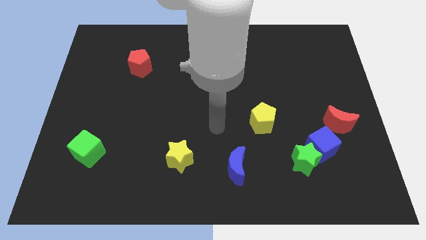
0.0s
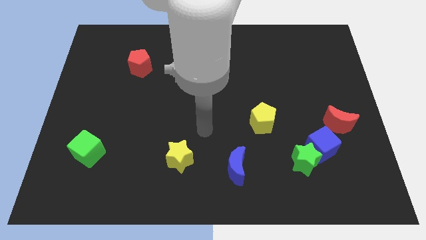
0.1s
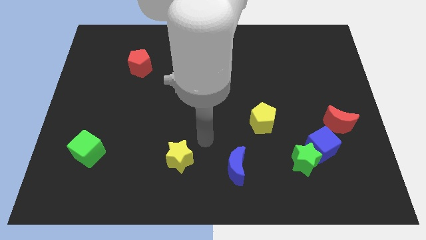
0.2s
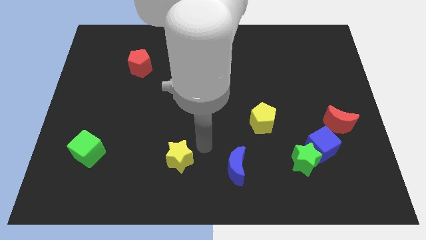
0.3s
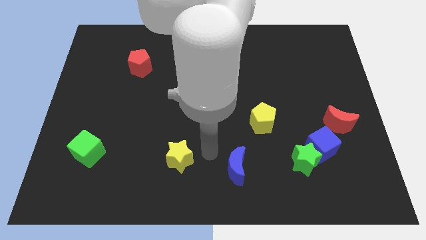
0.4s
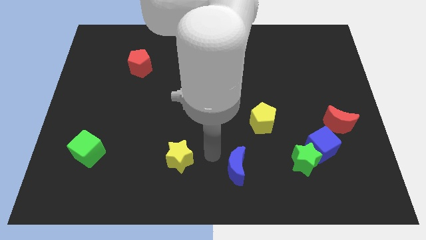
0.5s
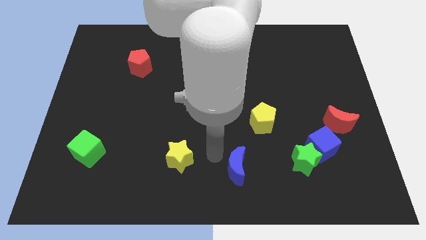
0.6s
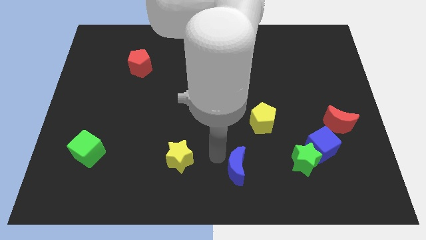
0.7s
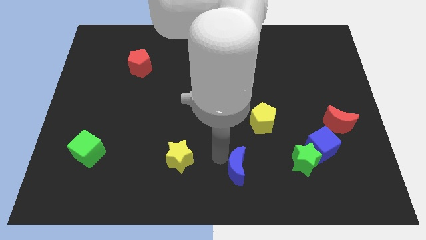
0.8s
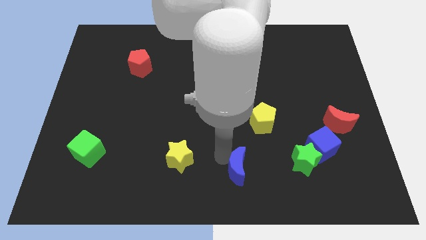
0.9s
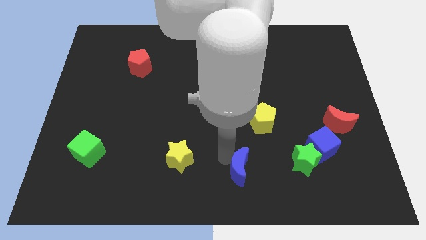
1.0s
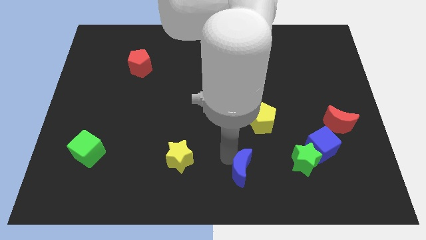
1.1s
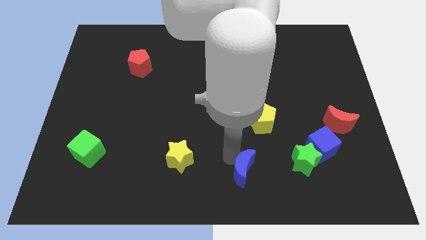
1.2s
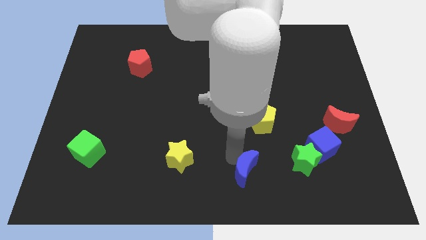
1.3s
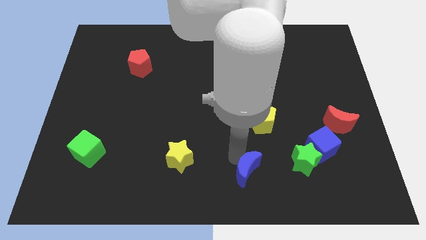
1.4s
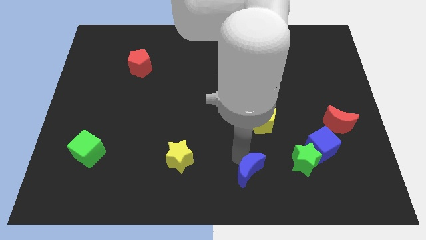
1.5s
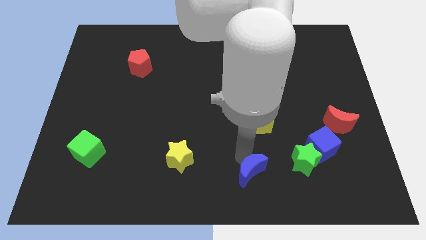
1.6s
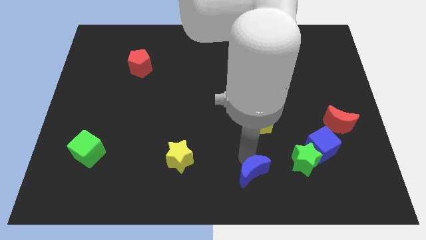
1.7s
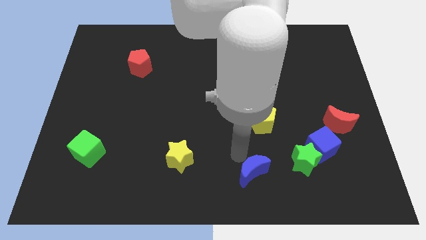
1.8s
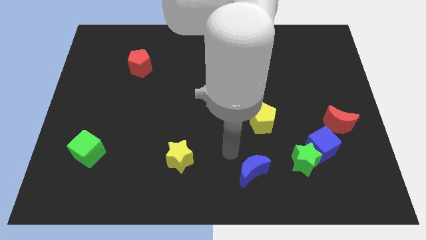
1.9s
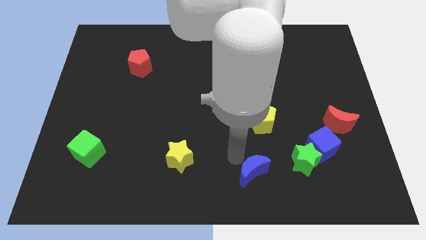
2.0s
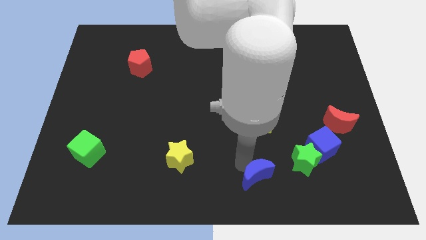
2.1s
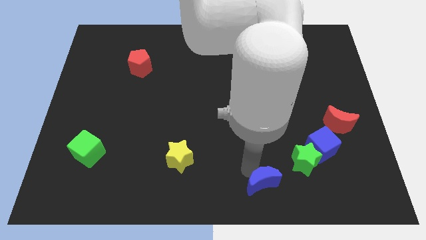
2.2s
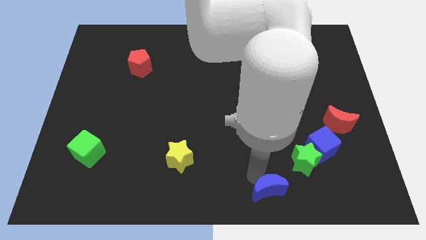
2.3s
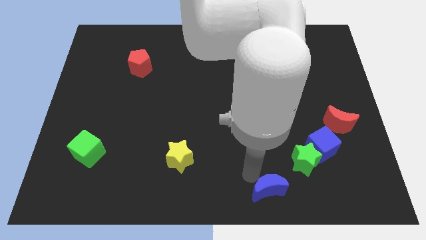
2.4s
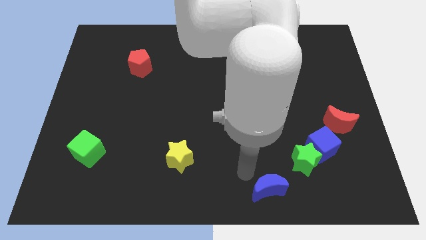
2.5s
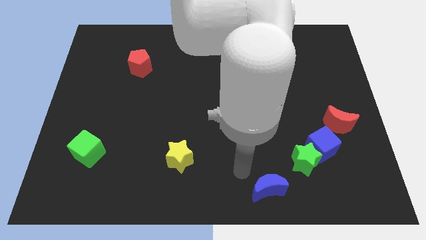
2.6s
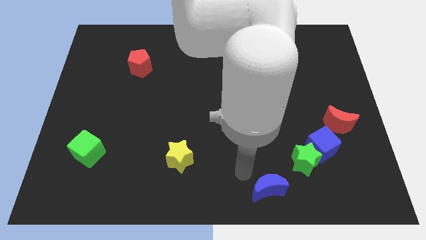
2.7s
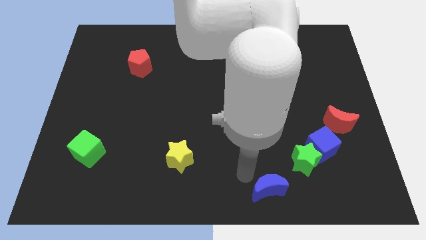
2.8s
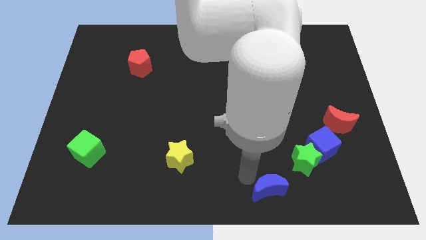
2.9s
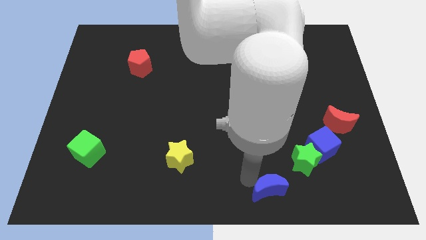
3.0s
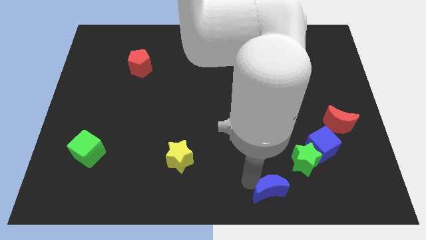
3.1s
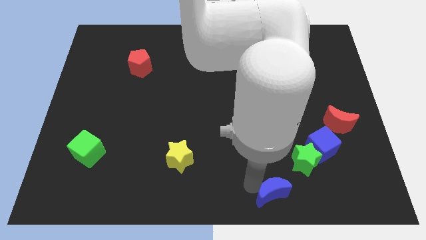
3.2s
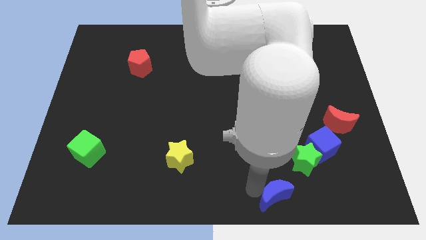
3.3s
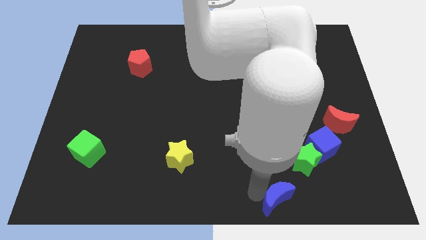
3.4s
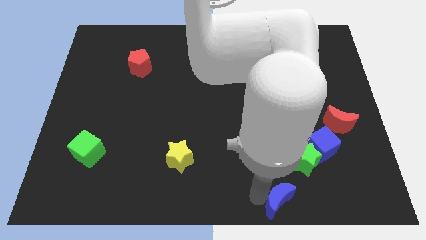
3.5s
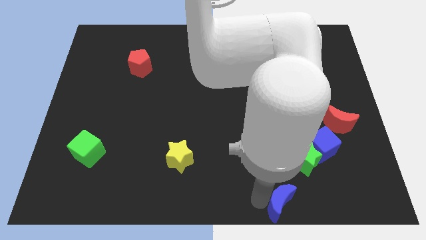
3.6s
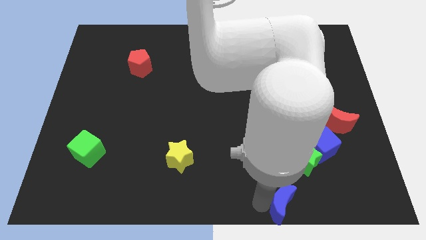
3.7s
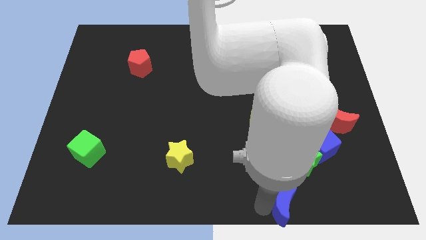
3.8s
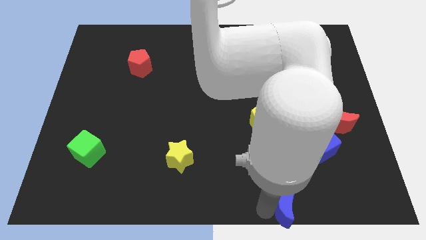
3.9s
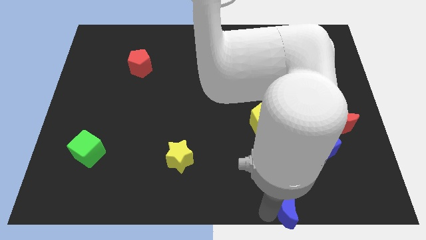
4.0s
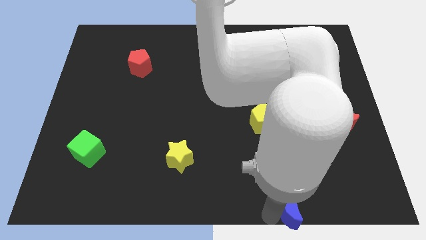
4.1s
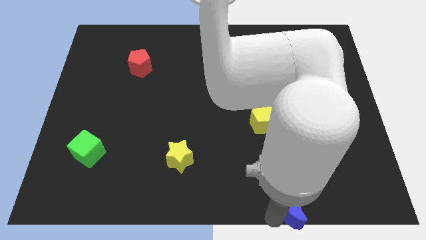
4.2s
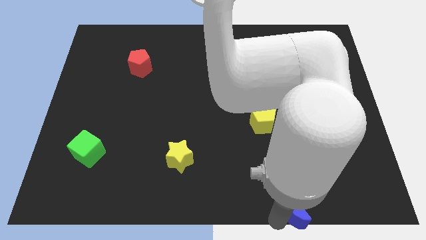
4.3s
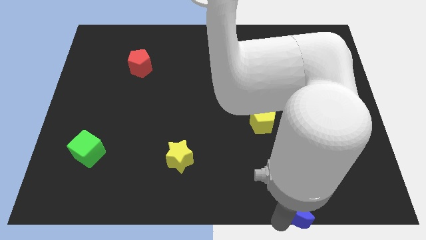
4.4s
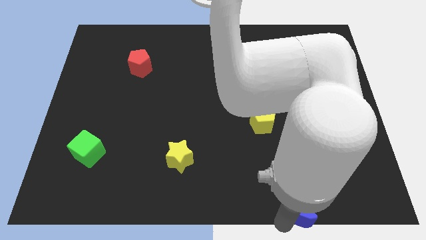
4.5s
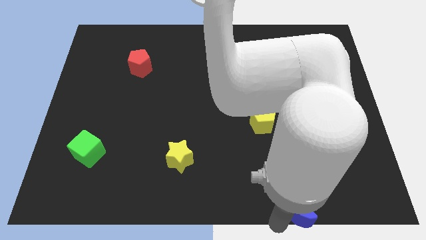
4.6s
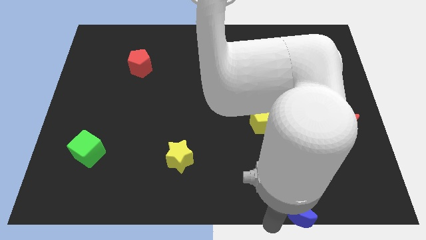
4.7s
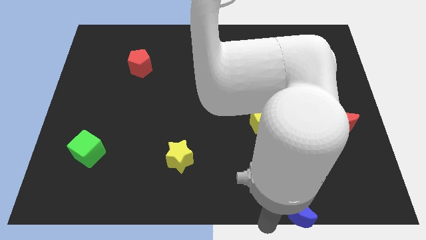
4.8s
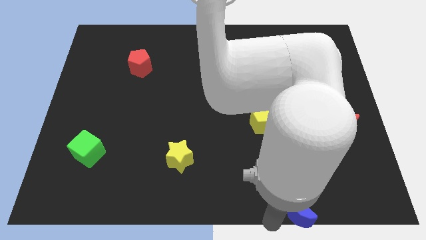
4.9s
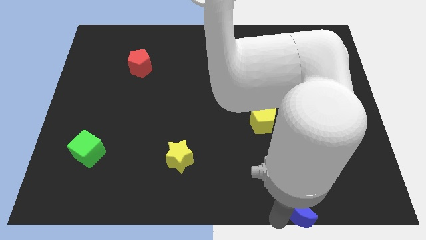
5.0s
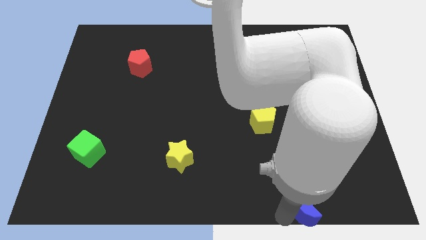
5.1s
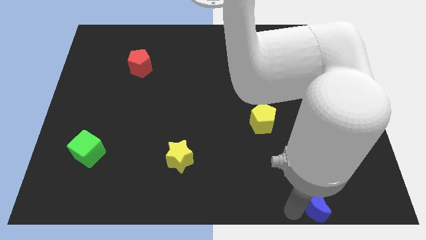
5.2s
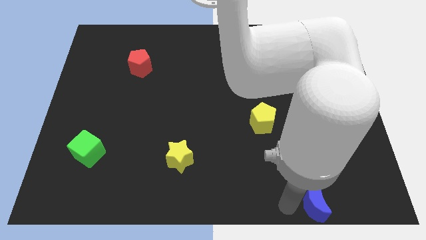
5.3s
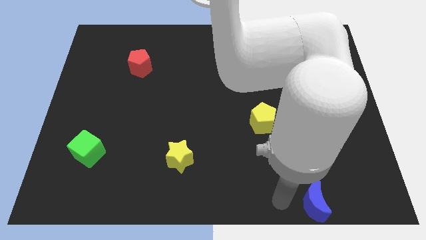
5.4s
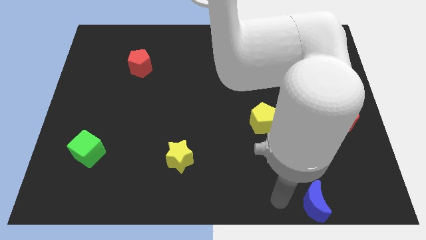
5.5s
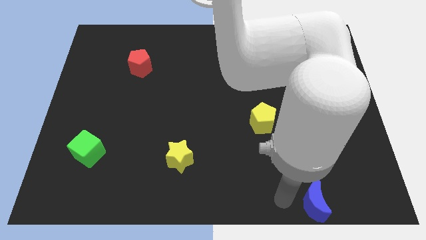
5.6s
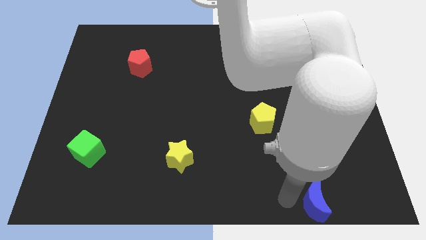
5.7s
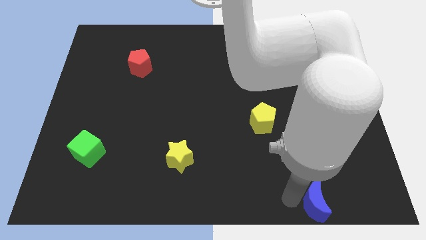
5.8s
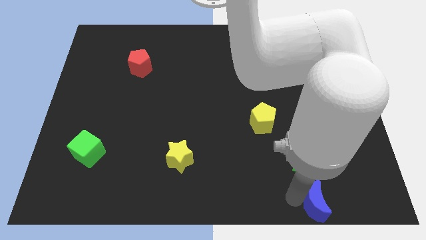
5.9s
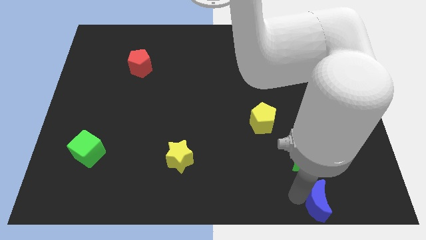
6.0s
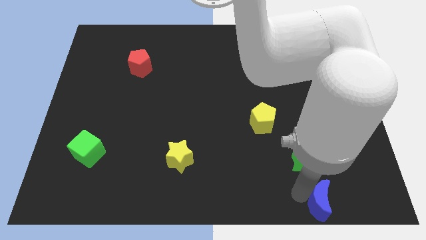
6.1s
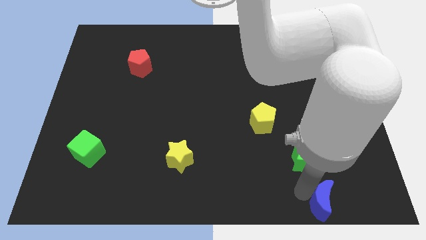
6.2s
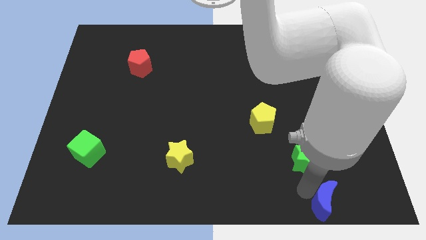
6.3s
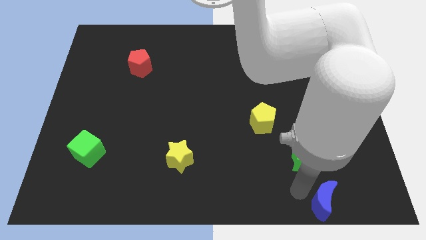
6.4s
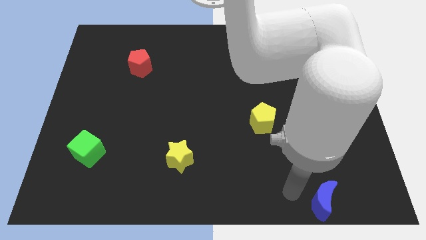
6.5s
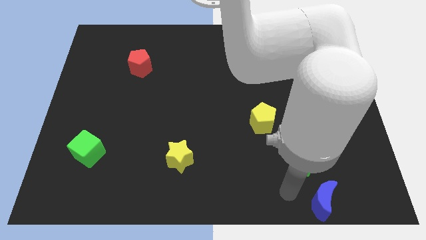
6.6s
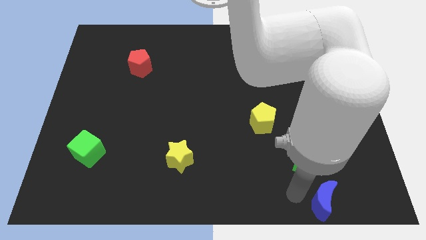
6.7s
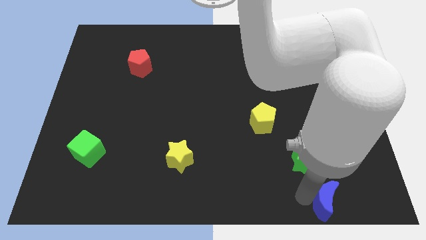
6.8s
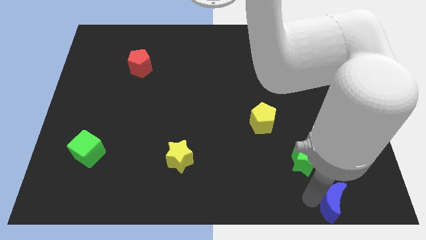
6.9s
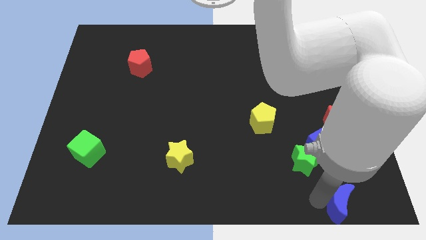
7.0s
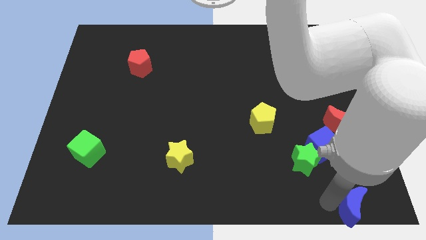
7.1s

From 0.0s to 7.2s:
move the blue moon to the bottom right of the board
